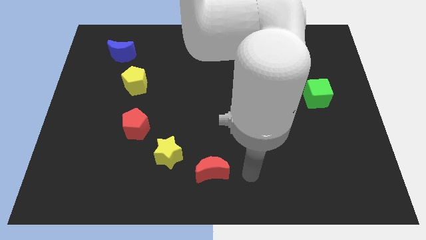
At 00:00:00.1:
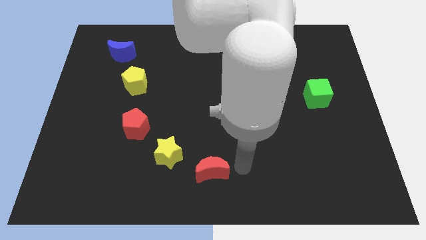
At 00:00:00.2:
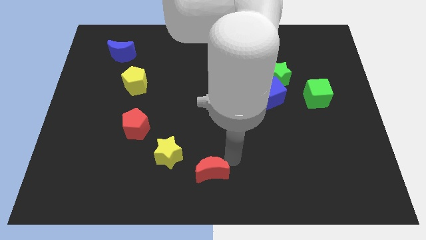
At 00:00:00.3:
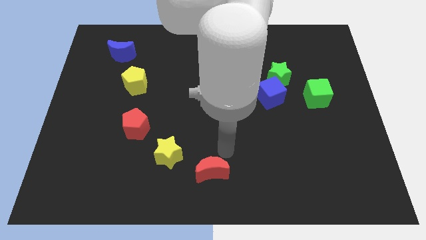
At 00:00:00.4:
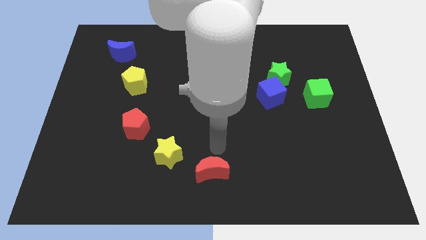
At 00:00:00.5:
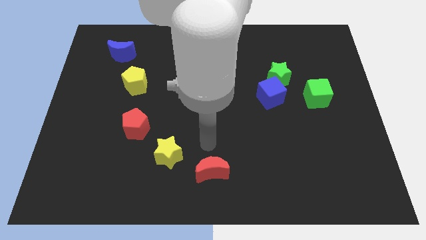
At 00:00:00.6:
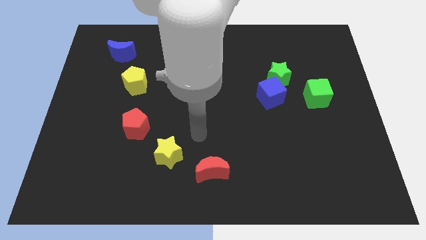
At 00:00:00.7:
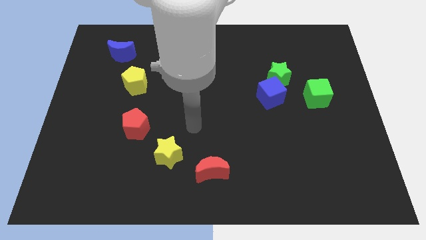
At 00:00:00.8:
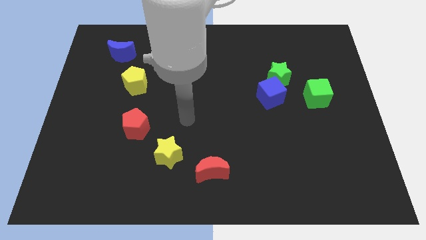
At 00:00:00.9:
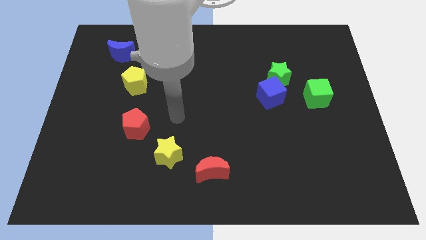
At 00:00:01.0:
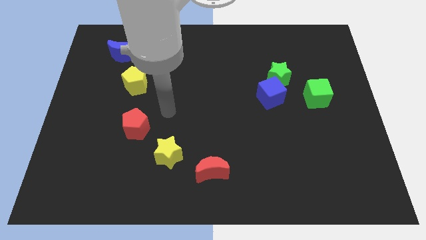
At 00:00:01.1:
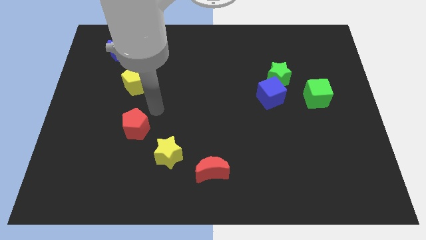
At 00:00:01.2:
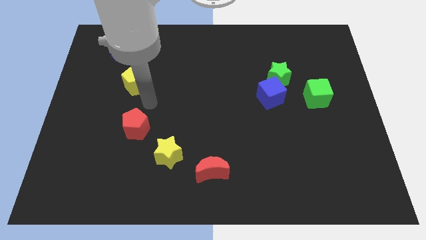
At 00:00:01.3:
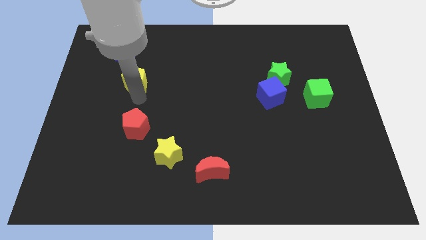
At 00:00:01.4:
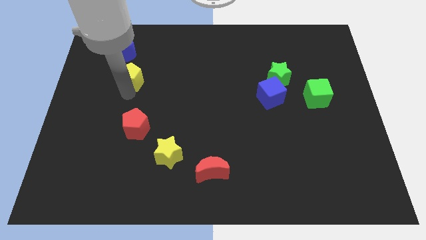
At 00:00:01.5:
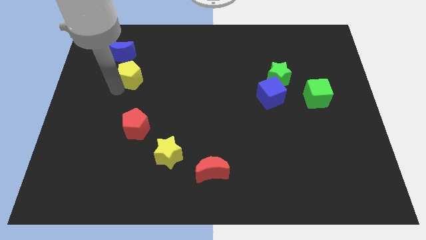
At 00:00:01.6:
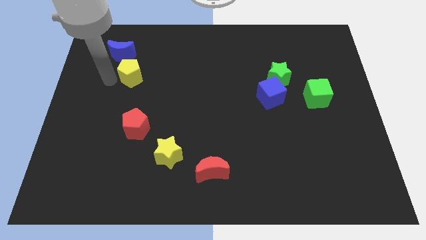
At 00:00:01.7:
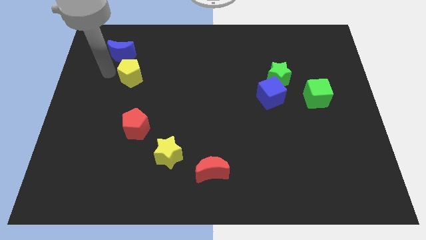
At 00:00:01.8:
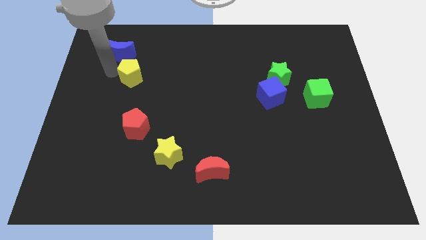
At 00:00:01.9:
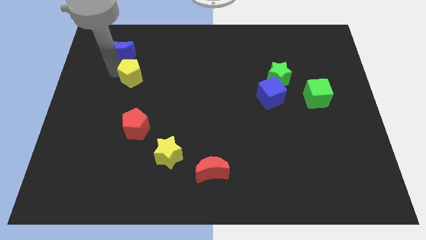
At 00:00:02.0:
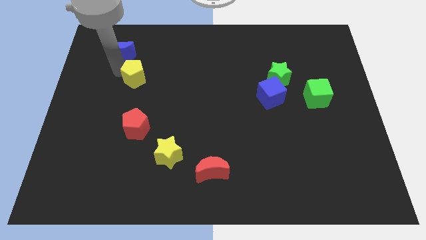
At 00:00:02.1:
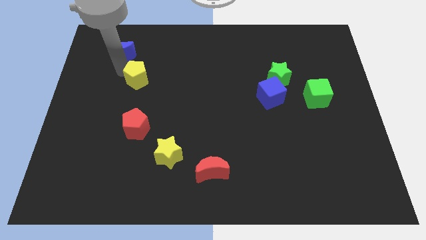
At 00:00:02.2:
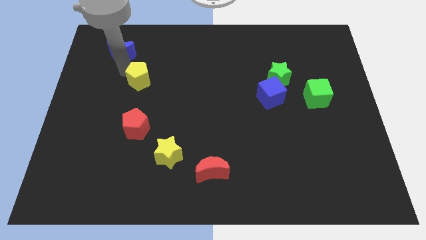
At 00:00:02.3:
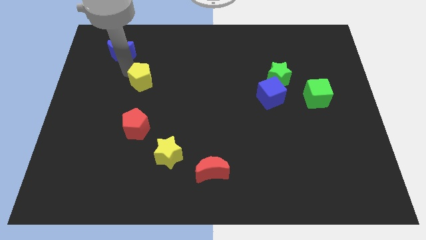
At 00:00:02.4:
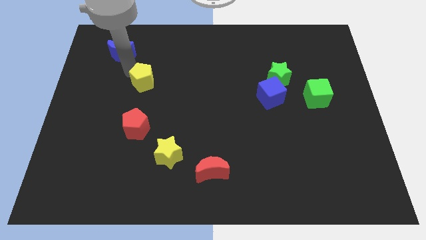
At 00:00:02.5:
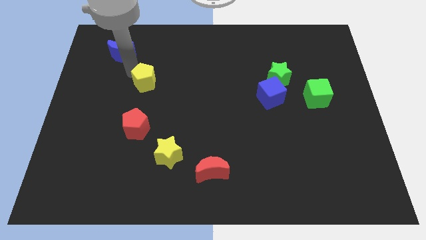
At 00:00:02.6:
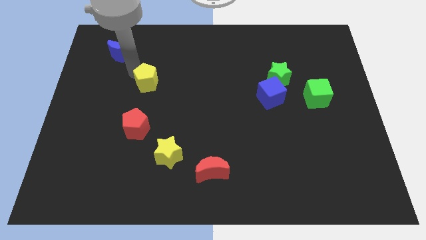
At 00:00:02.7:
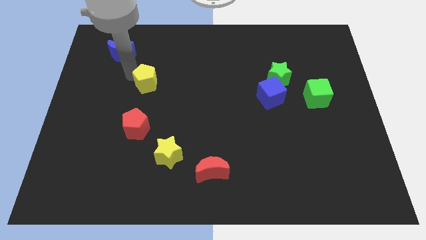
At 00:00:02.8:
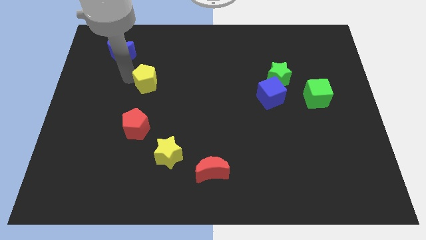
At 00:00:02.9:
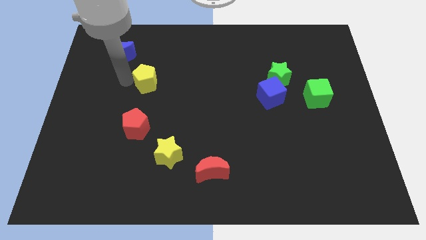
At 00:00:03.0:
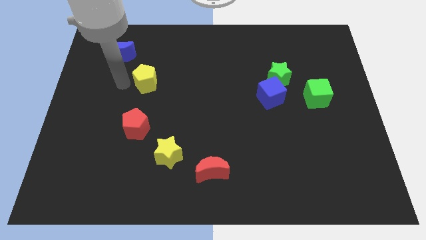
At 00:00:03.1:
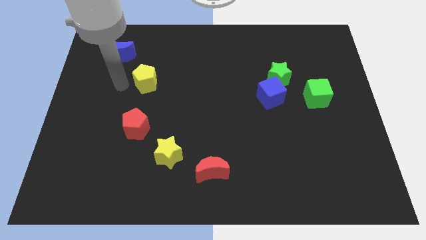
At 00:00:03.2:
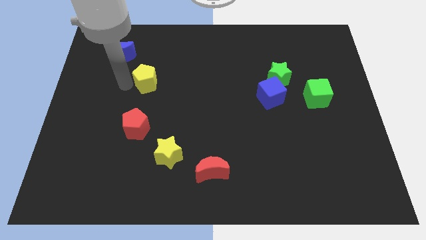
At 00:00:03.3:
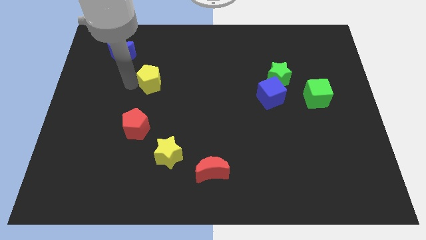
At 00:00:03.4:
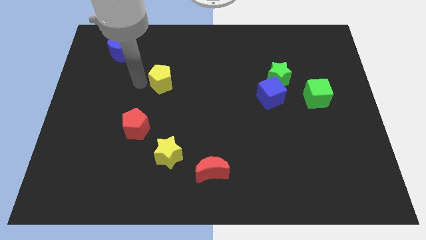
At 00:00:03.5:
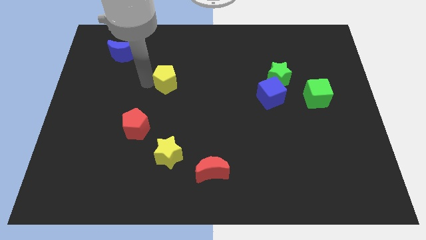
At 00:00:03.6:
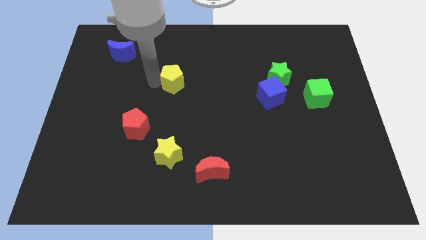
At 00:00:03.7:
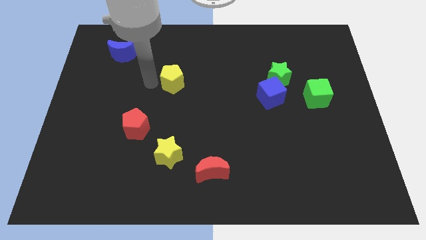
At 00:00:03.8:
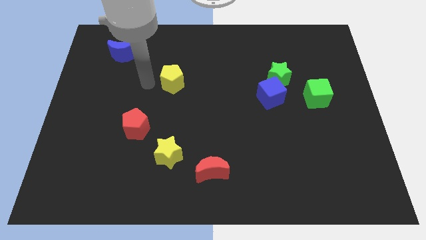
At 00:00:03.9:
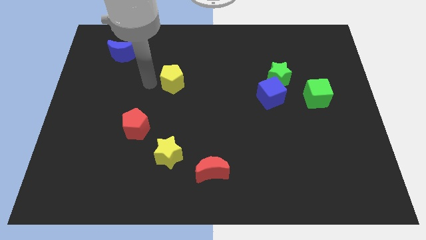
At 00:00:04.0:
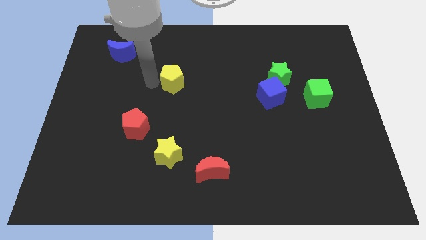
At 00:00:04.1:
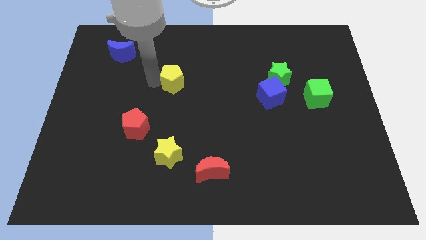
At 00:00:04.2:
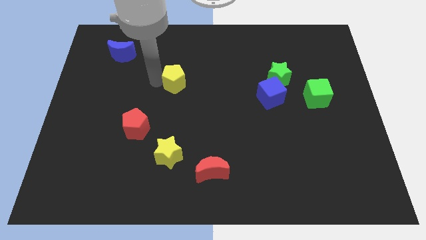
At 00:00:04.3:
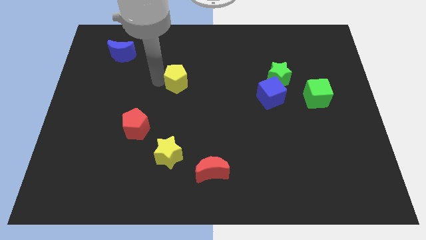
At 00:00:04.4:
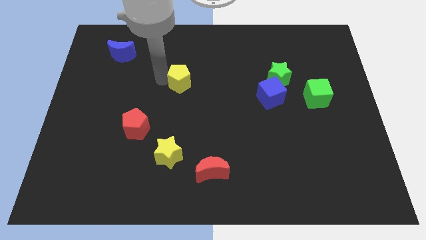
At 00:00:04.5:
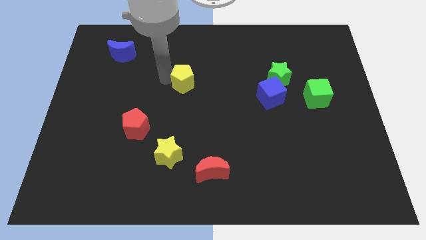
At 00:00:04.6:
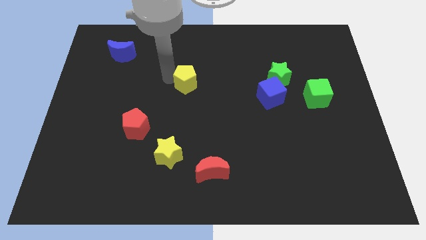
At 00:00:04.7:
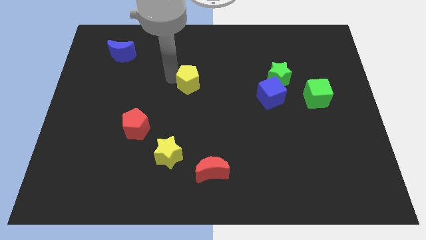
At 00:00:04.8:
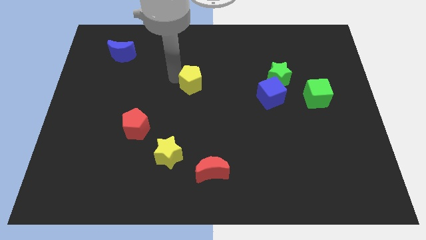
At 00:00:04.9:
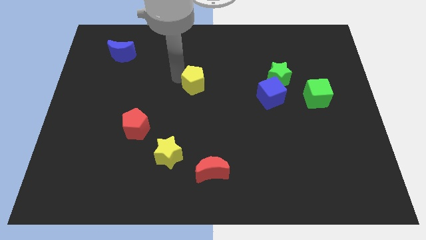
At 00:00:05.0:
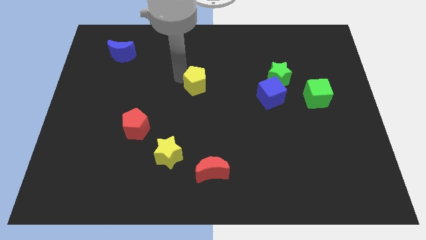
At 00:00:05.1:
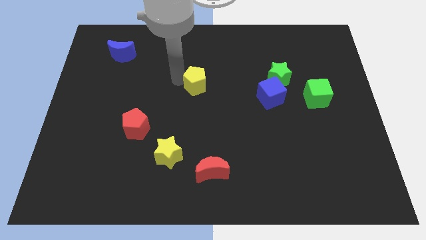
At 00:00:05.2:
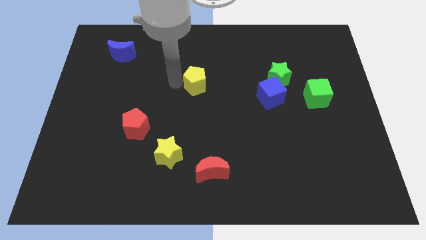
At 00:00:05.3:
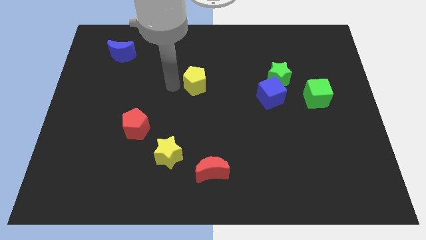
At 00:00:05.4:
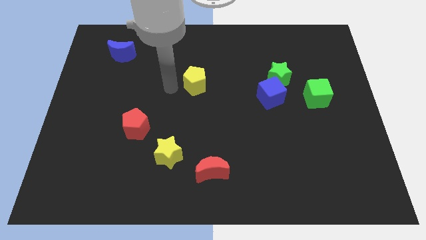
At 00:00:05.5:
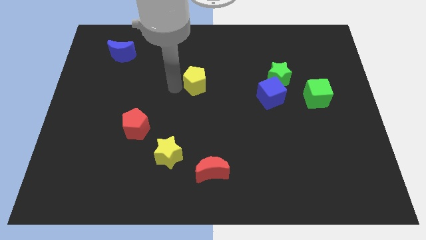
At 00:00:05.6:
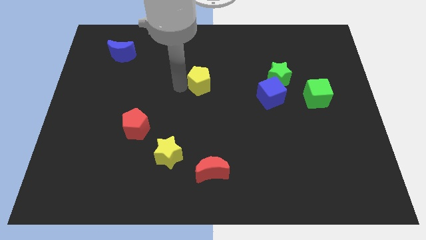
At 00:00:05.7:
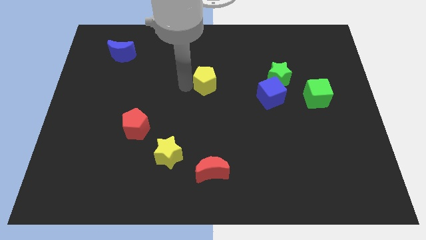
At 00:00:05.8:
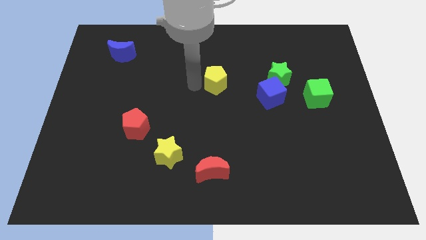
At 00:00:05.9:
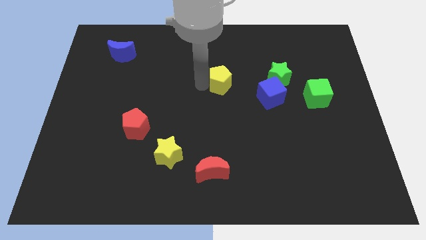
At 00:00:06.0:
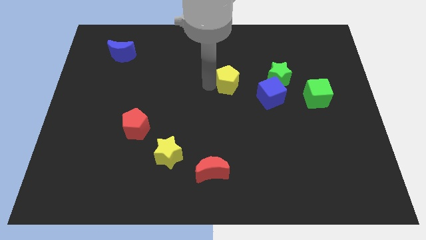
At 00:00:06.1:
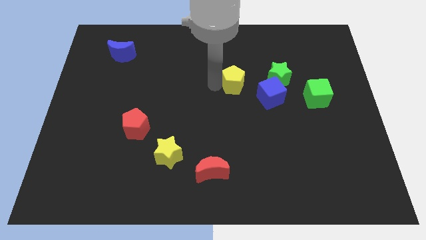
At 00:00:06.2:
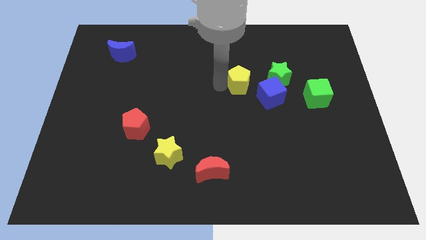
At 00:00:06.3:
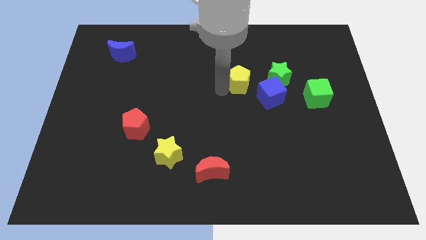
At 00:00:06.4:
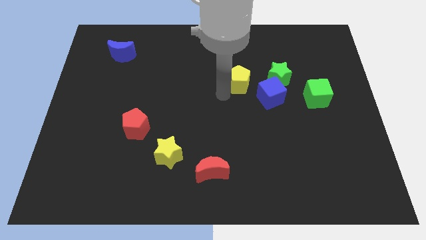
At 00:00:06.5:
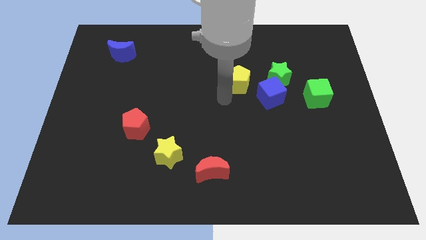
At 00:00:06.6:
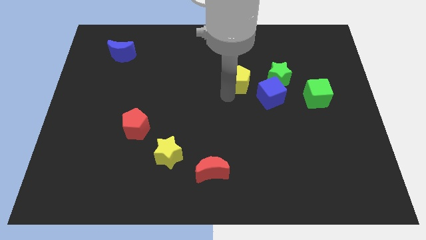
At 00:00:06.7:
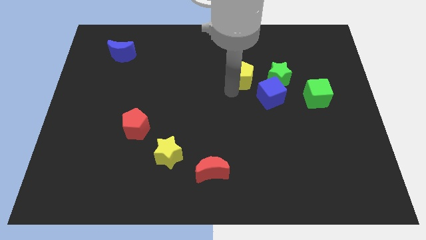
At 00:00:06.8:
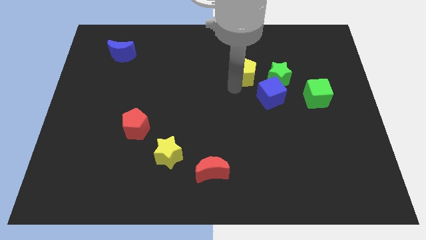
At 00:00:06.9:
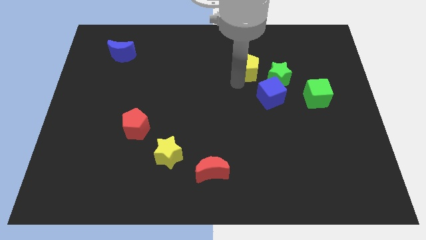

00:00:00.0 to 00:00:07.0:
move the yellow pentagon to the top of the blue cube
